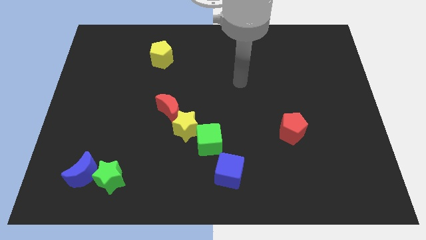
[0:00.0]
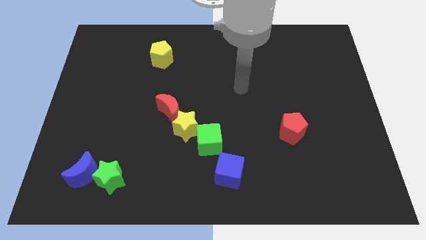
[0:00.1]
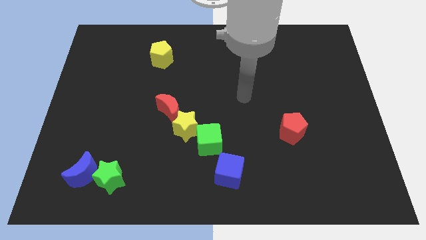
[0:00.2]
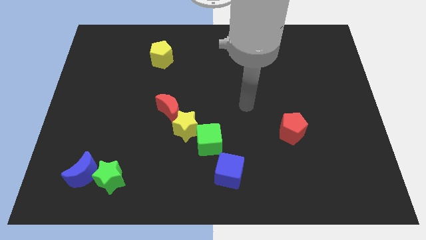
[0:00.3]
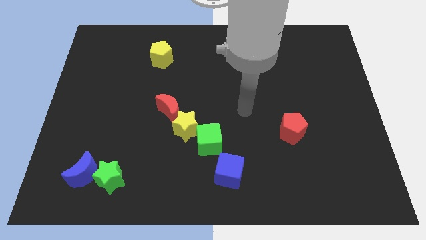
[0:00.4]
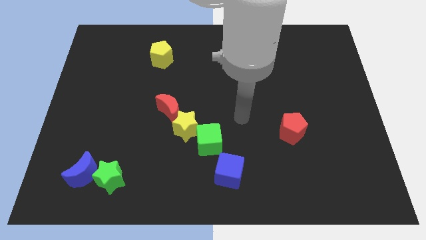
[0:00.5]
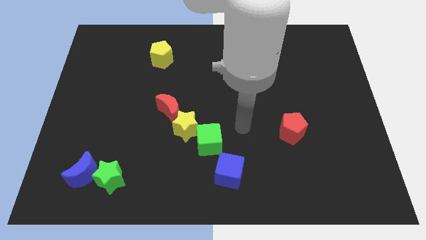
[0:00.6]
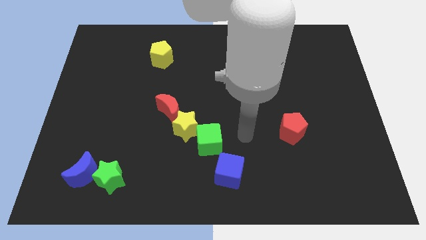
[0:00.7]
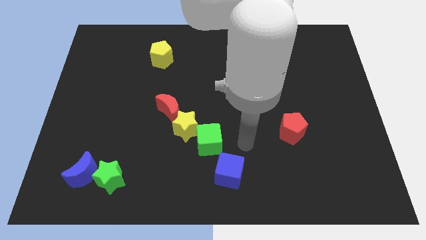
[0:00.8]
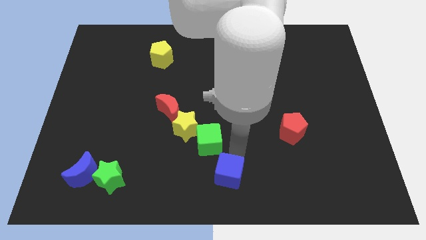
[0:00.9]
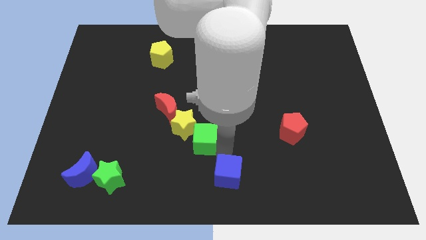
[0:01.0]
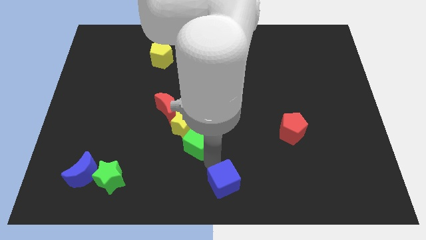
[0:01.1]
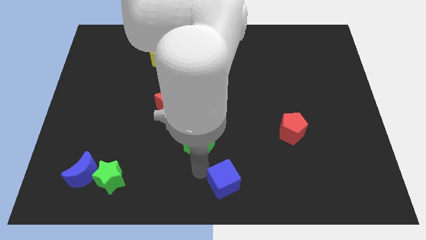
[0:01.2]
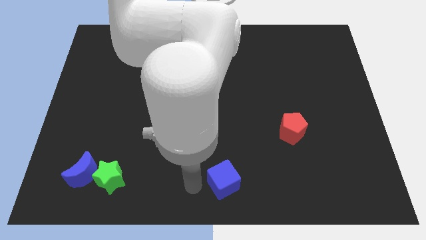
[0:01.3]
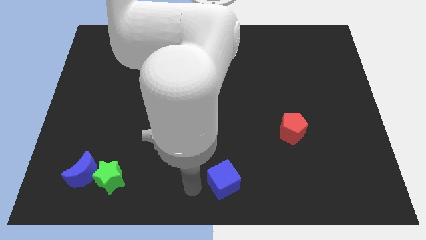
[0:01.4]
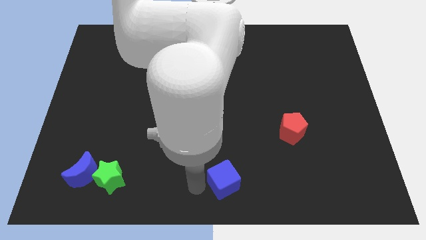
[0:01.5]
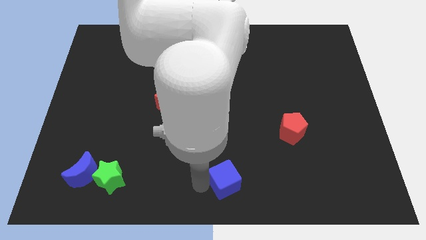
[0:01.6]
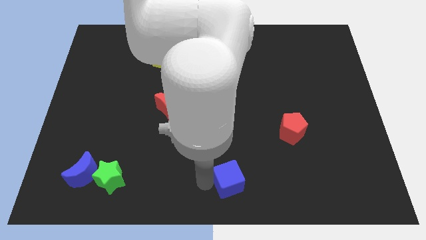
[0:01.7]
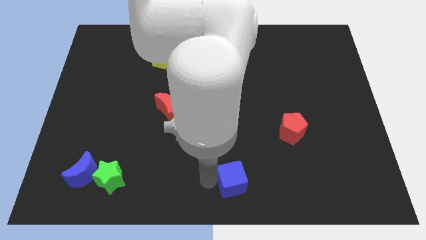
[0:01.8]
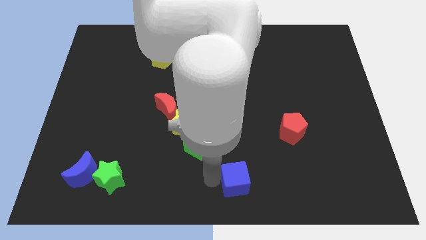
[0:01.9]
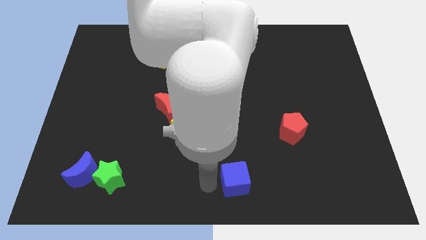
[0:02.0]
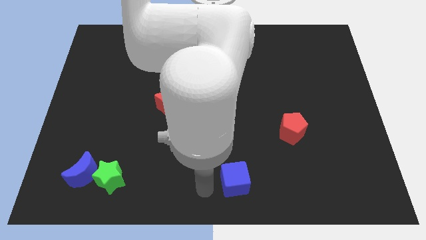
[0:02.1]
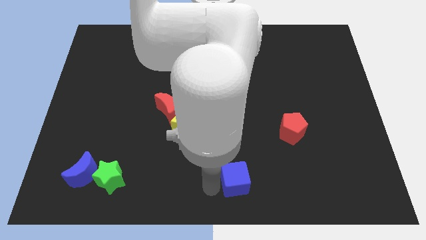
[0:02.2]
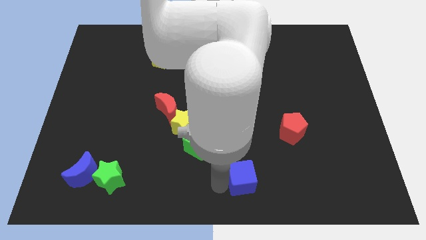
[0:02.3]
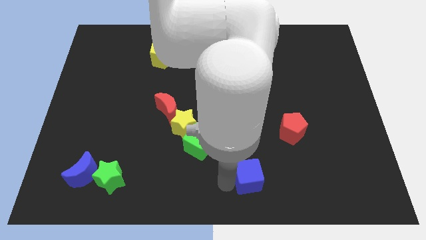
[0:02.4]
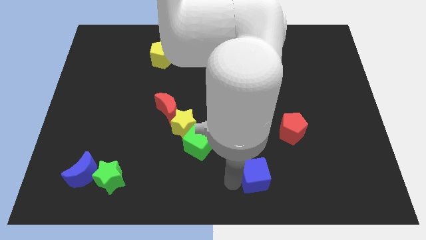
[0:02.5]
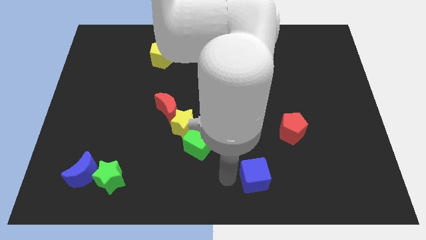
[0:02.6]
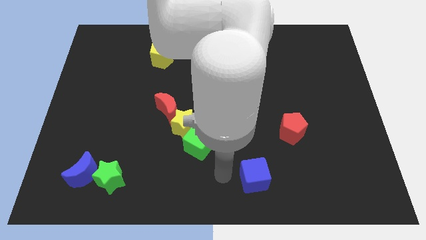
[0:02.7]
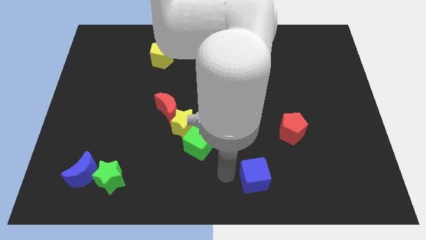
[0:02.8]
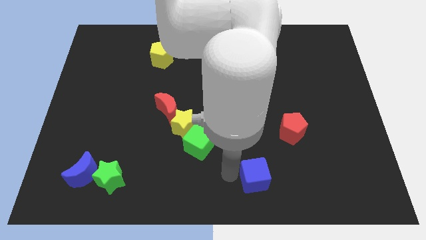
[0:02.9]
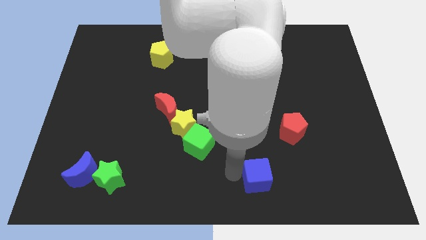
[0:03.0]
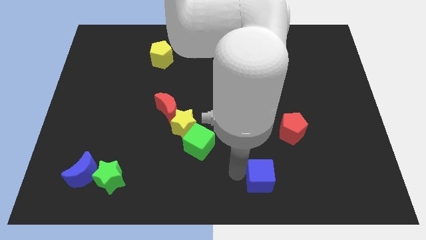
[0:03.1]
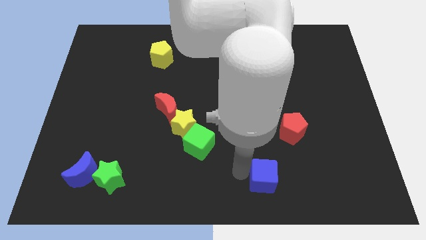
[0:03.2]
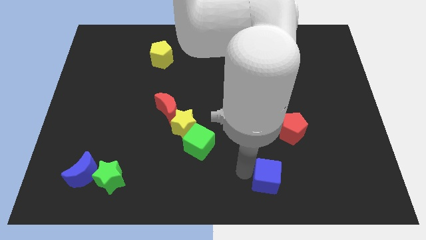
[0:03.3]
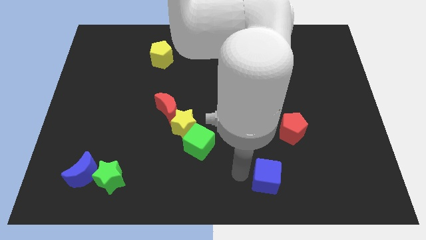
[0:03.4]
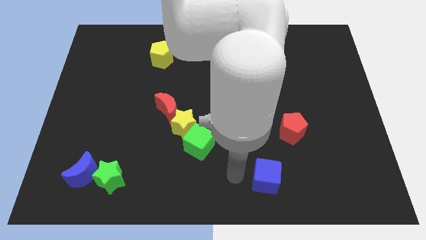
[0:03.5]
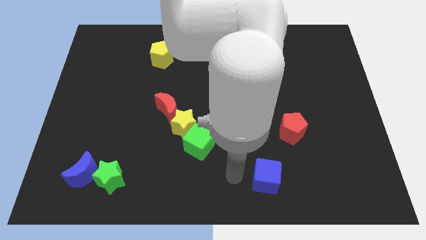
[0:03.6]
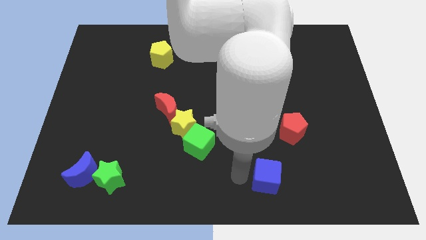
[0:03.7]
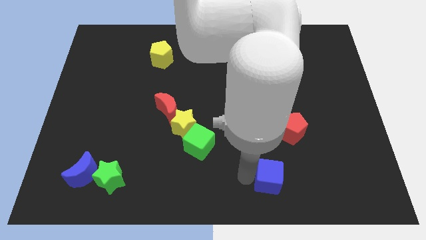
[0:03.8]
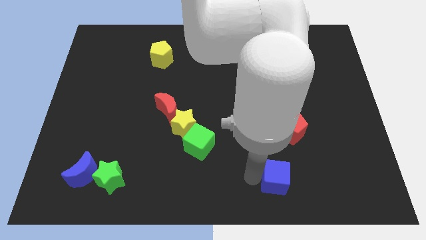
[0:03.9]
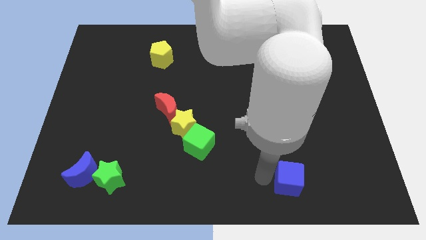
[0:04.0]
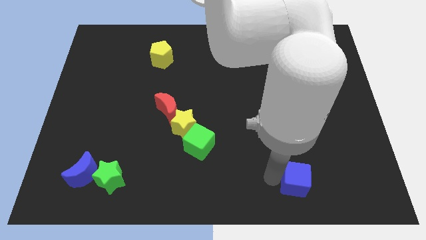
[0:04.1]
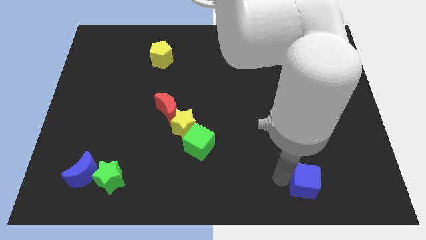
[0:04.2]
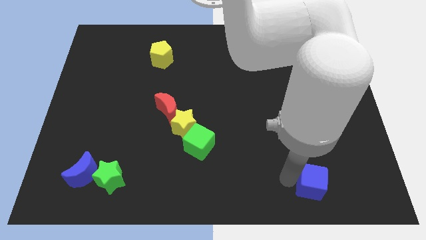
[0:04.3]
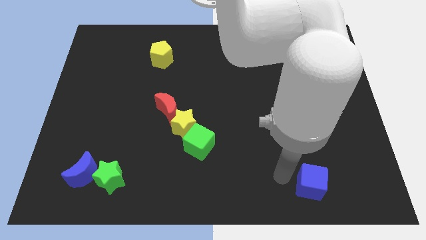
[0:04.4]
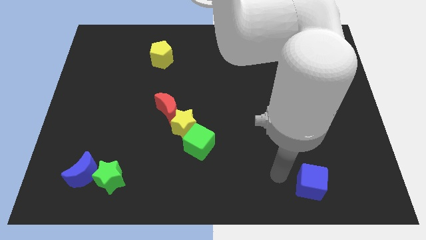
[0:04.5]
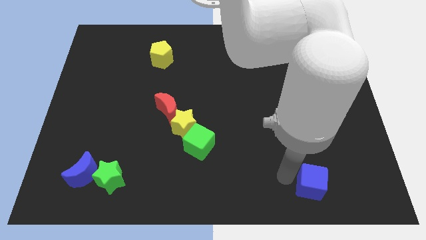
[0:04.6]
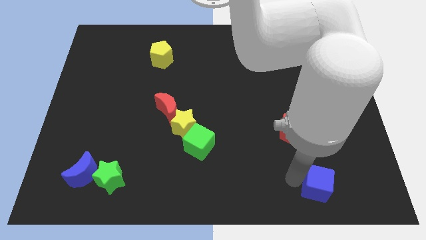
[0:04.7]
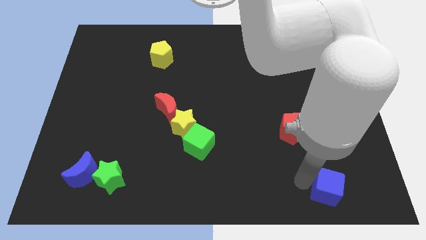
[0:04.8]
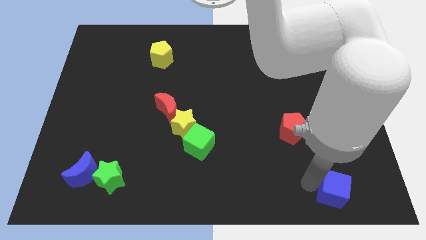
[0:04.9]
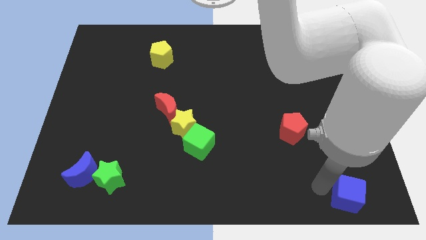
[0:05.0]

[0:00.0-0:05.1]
slide the blue cube to the lower right corner

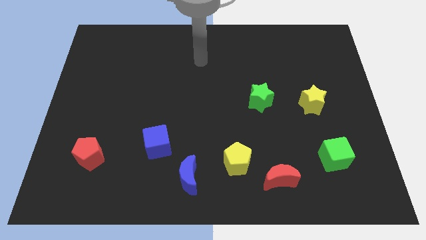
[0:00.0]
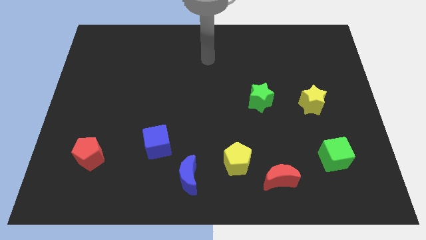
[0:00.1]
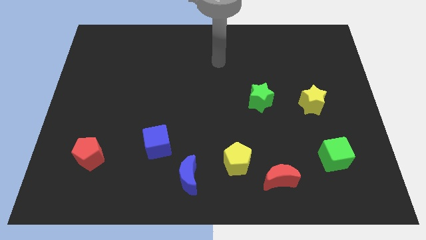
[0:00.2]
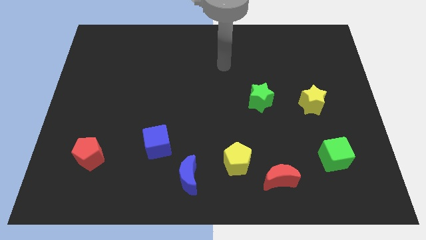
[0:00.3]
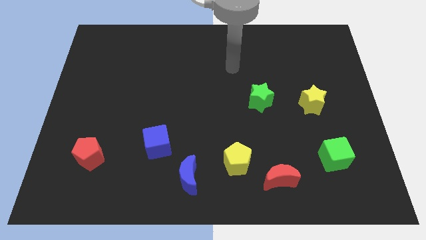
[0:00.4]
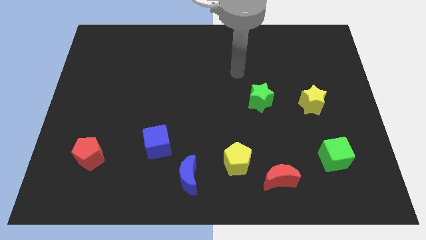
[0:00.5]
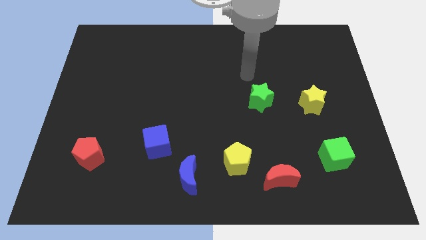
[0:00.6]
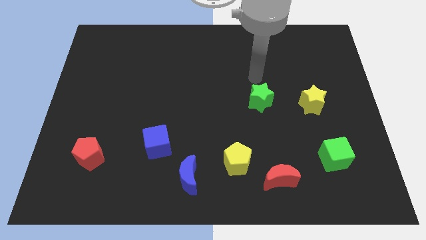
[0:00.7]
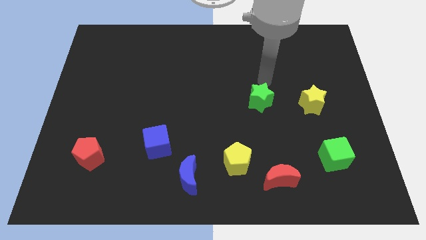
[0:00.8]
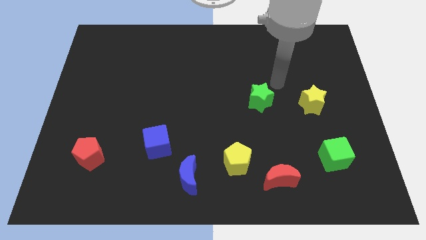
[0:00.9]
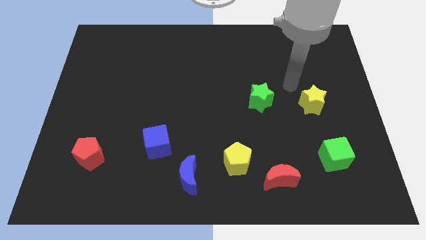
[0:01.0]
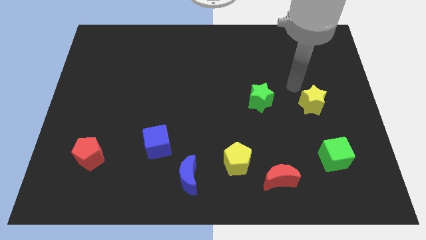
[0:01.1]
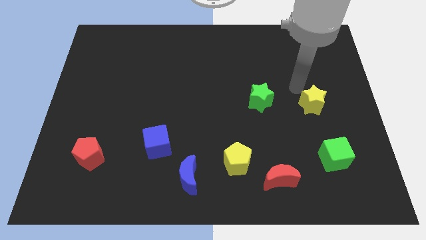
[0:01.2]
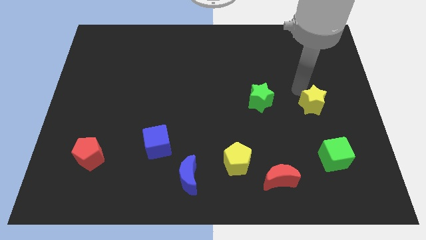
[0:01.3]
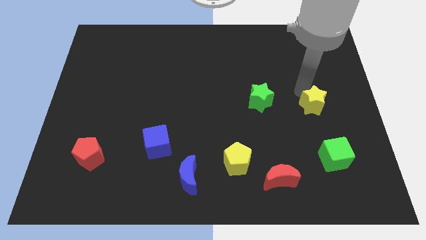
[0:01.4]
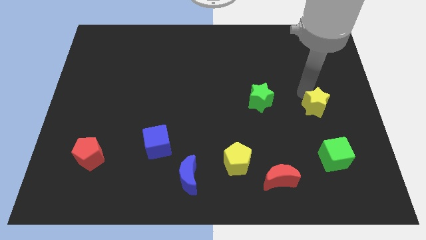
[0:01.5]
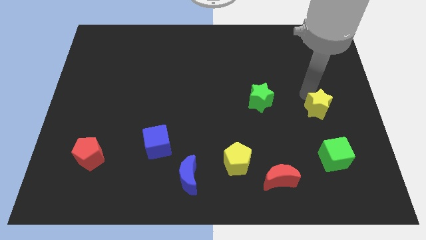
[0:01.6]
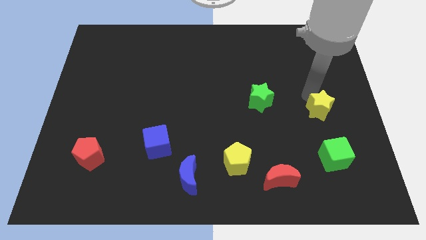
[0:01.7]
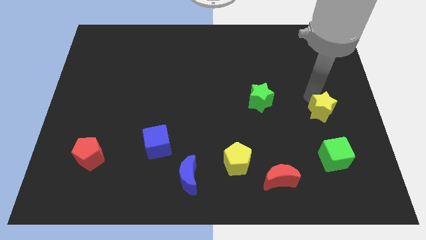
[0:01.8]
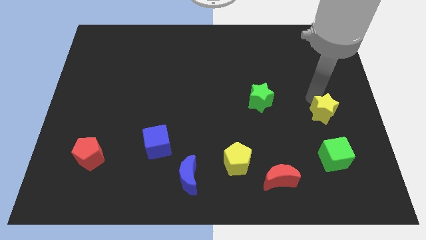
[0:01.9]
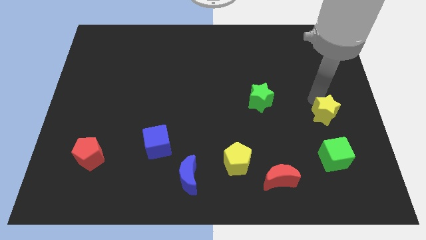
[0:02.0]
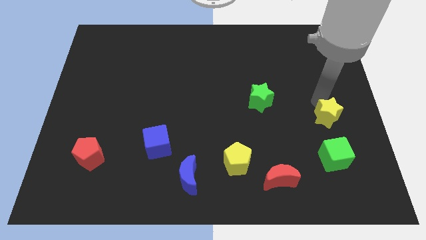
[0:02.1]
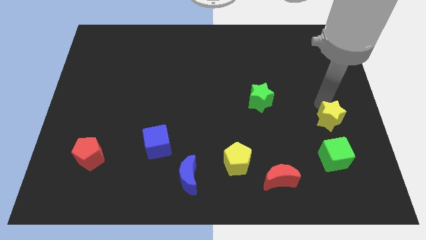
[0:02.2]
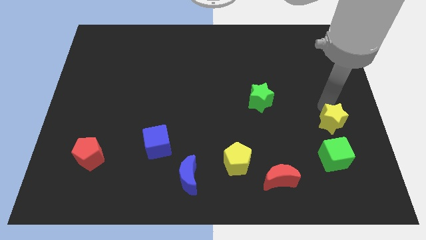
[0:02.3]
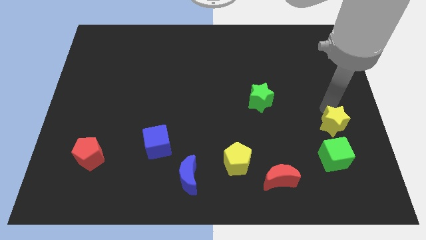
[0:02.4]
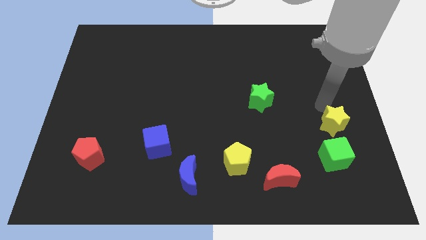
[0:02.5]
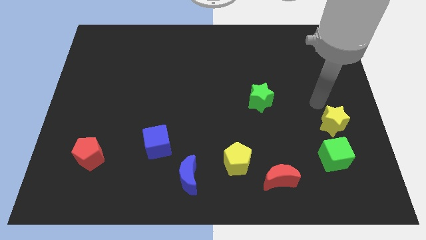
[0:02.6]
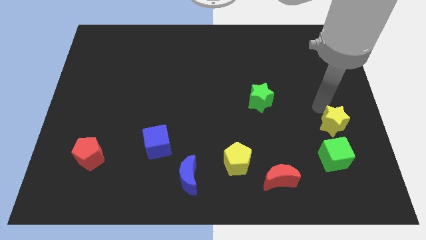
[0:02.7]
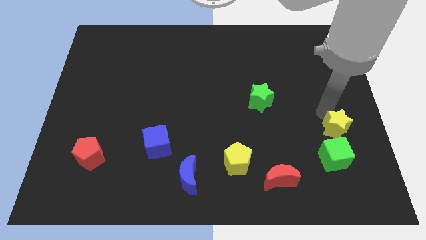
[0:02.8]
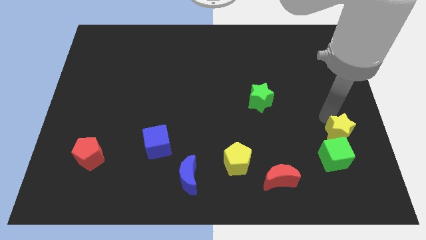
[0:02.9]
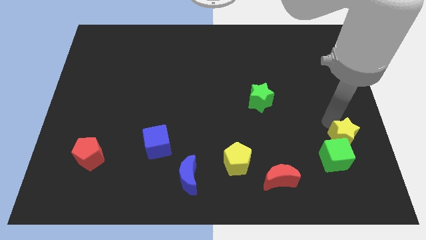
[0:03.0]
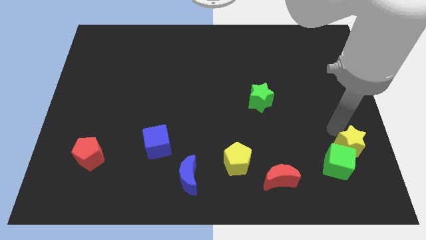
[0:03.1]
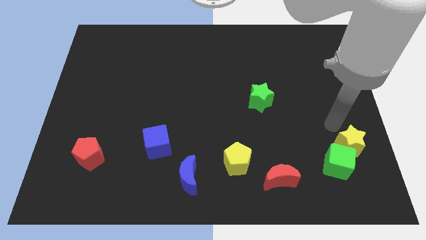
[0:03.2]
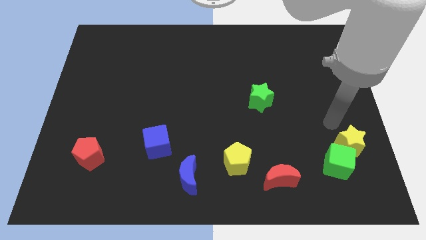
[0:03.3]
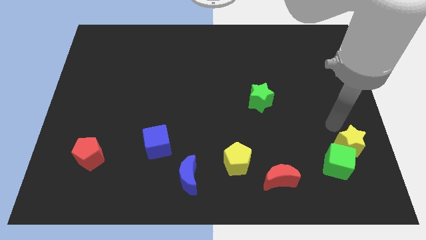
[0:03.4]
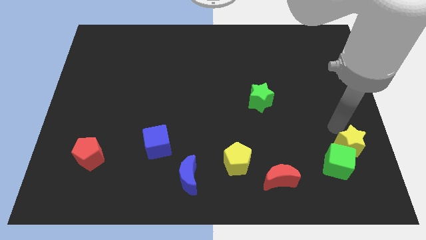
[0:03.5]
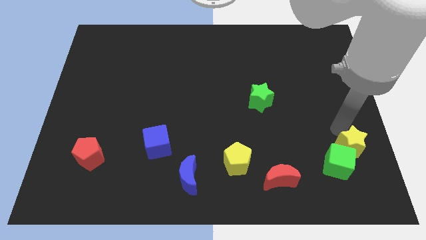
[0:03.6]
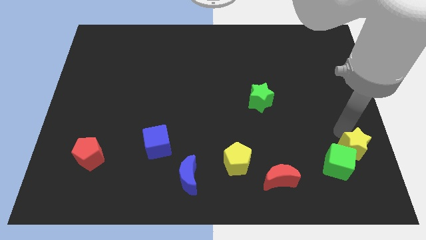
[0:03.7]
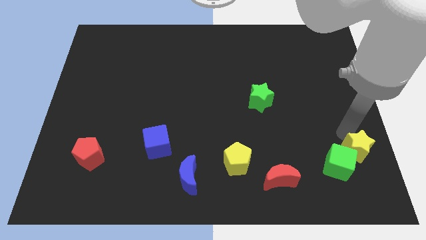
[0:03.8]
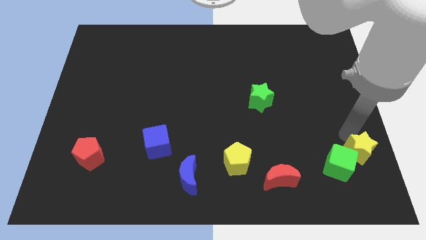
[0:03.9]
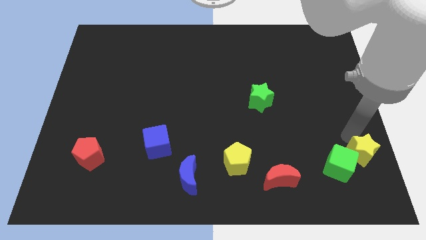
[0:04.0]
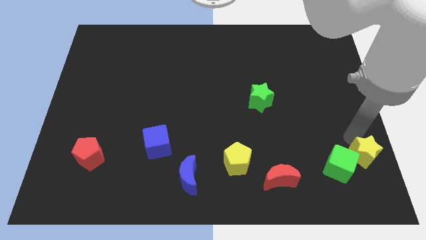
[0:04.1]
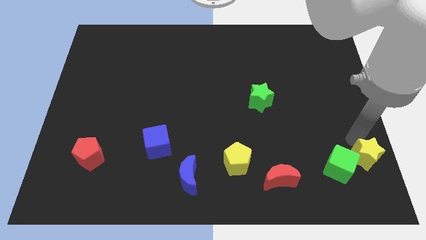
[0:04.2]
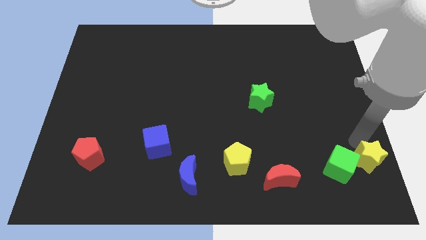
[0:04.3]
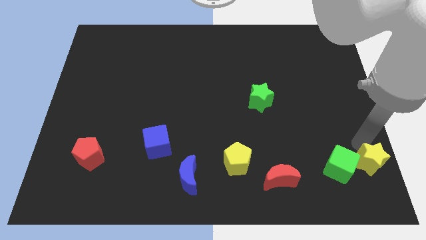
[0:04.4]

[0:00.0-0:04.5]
slide the yellow star to the lower right corner
